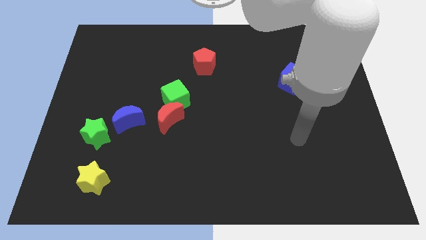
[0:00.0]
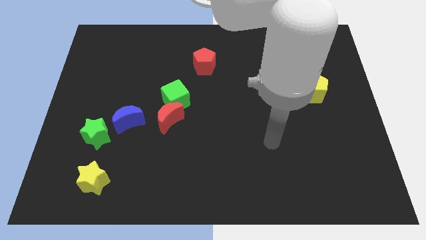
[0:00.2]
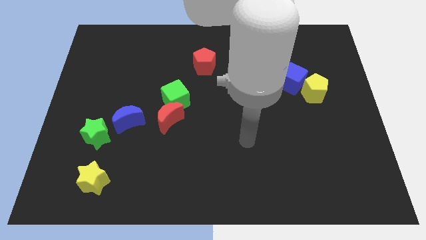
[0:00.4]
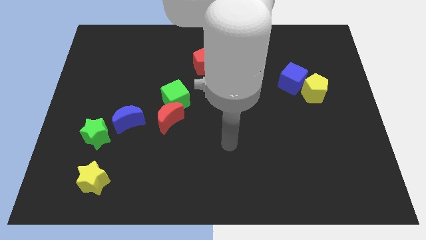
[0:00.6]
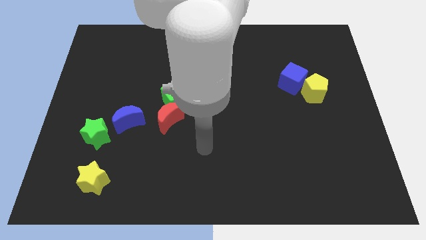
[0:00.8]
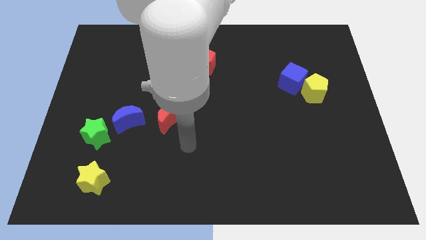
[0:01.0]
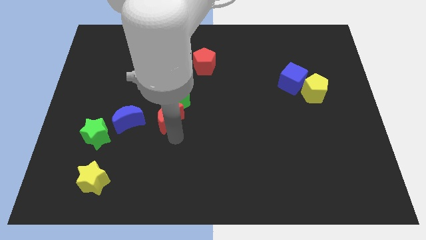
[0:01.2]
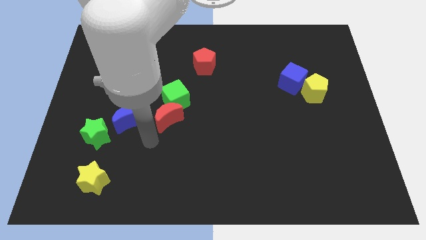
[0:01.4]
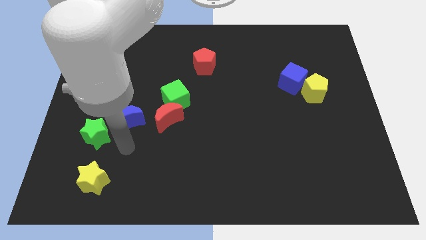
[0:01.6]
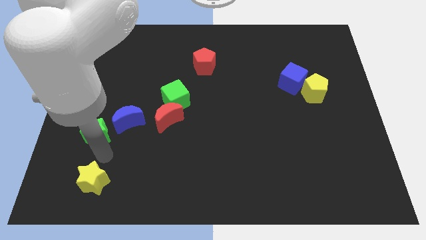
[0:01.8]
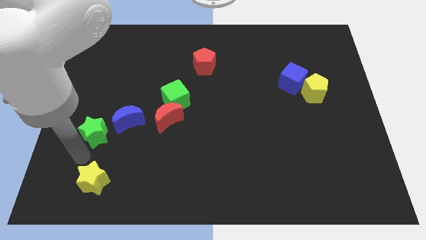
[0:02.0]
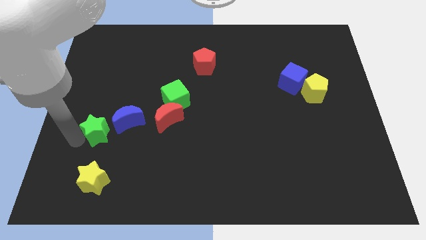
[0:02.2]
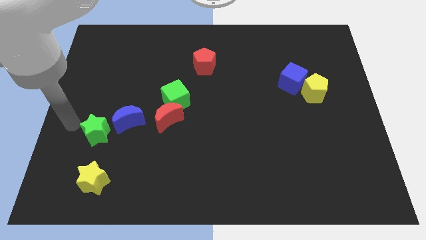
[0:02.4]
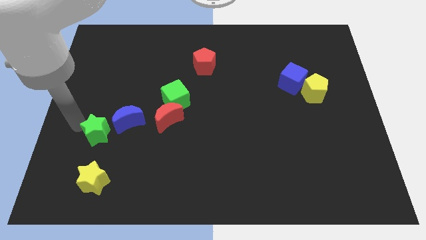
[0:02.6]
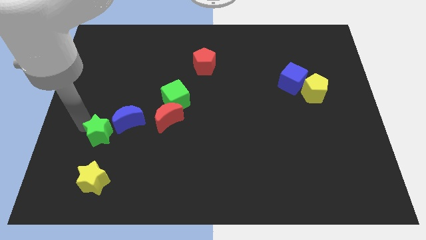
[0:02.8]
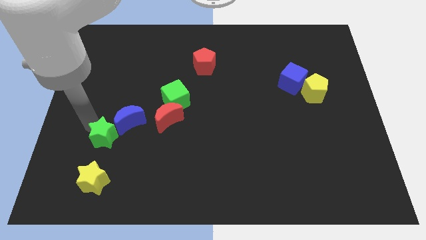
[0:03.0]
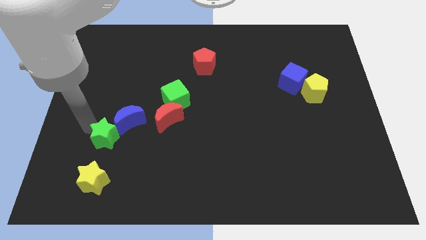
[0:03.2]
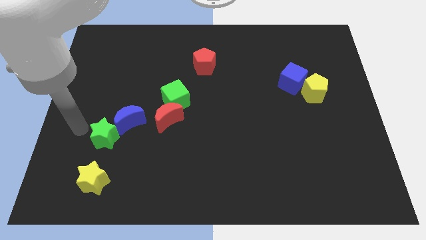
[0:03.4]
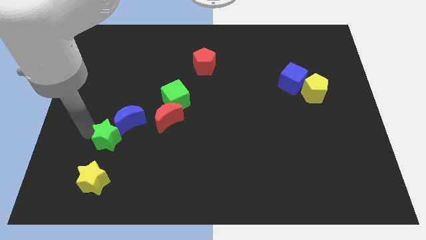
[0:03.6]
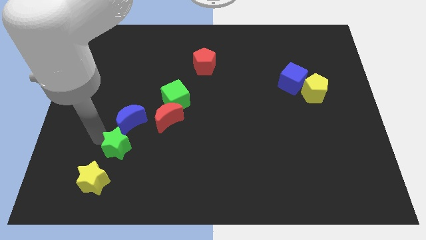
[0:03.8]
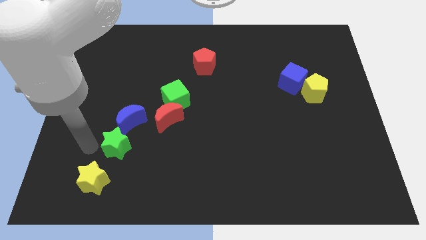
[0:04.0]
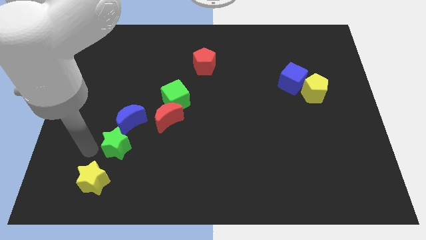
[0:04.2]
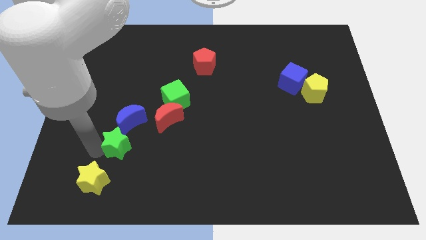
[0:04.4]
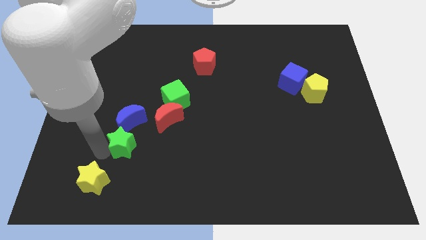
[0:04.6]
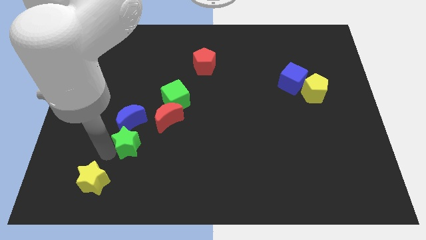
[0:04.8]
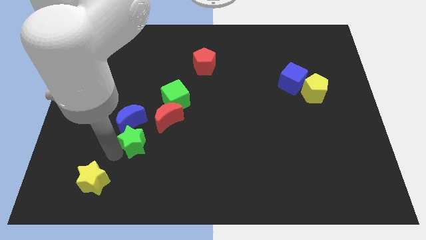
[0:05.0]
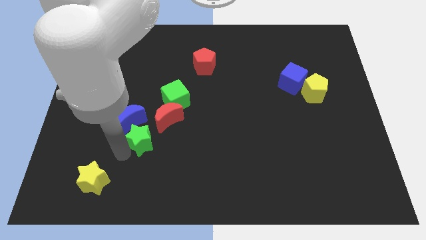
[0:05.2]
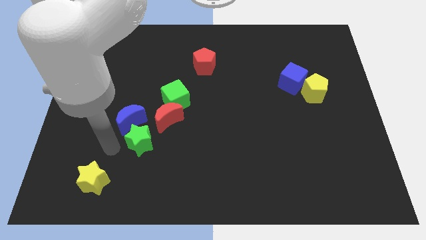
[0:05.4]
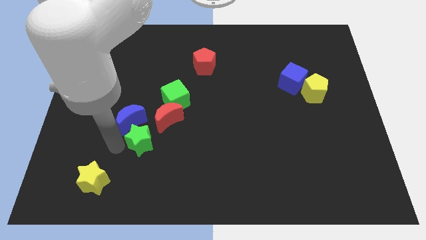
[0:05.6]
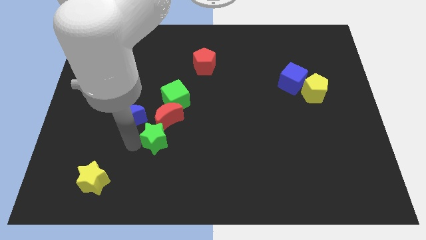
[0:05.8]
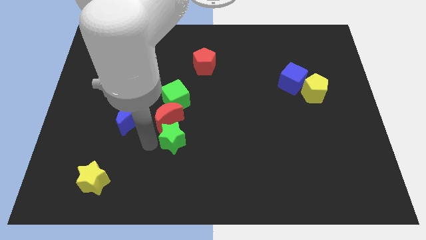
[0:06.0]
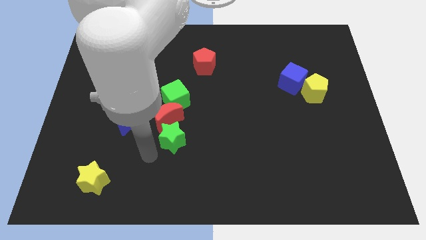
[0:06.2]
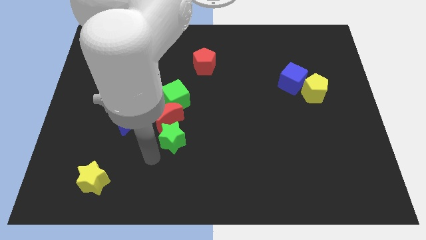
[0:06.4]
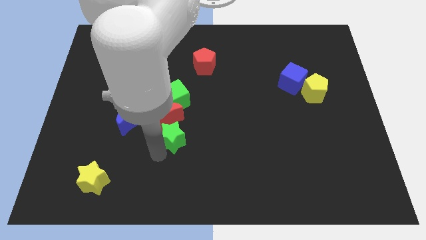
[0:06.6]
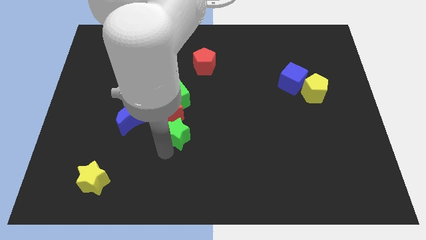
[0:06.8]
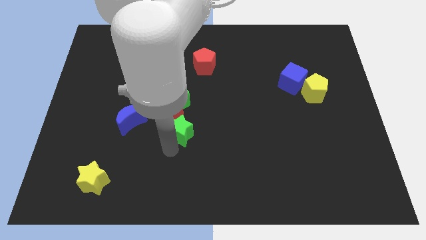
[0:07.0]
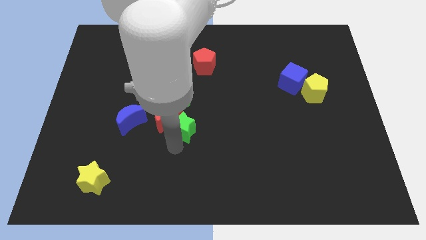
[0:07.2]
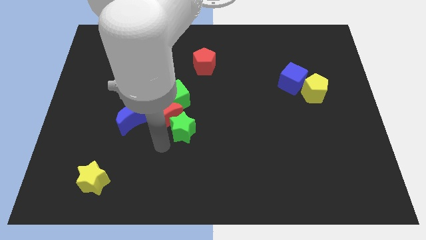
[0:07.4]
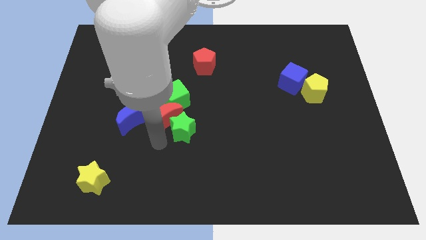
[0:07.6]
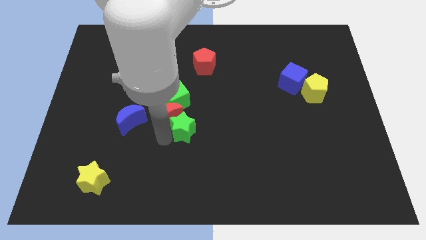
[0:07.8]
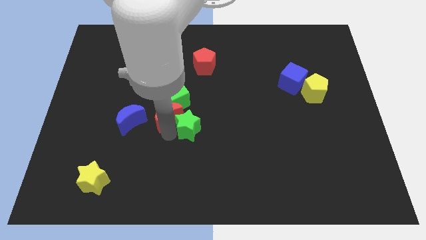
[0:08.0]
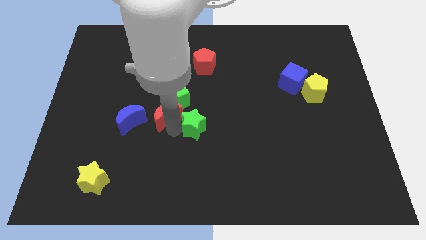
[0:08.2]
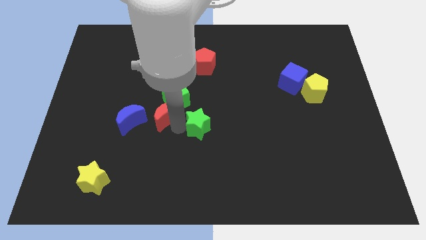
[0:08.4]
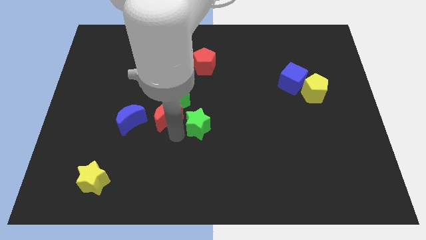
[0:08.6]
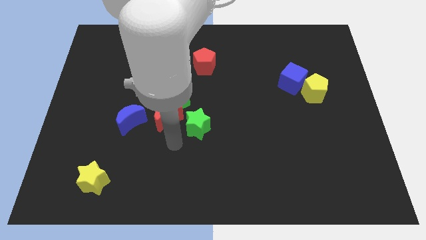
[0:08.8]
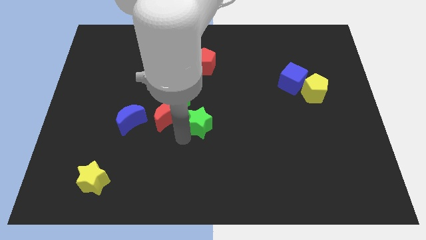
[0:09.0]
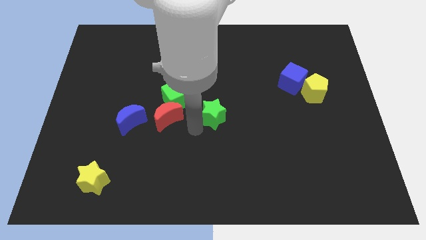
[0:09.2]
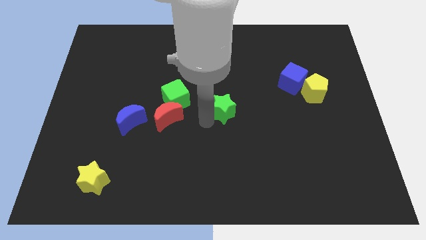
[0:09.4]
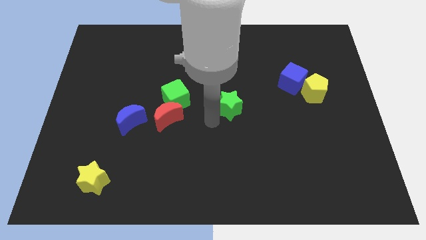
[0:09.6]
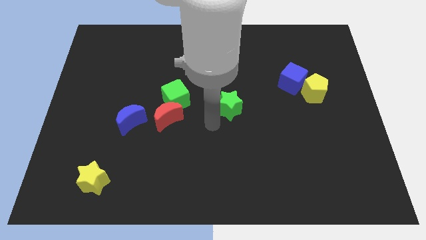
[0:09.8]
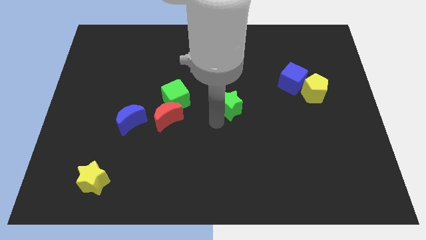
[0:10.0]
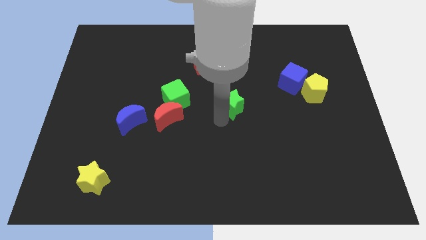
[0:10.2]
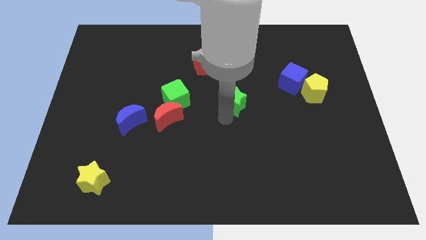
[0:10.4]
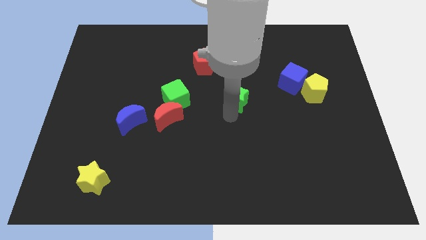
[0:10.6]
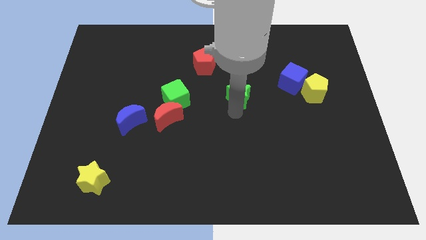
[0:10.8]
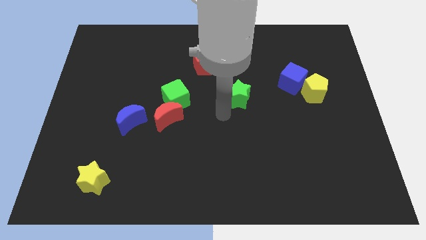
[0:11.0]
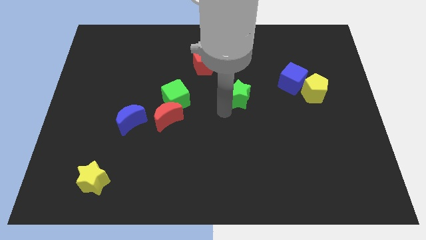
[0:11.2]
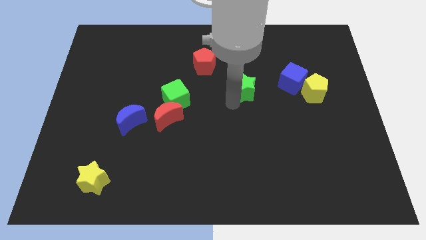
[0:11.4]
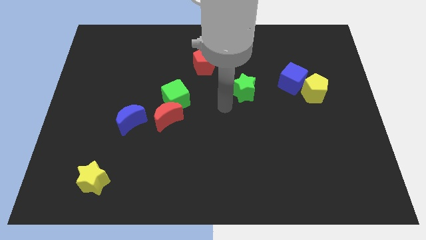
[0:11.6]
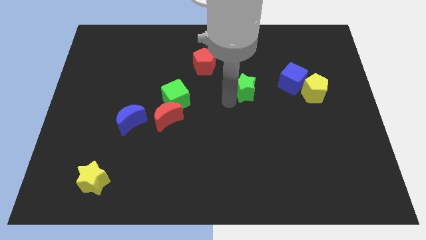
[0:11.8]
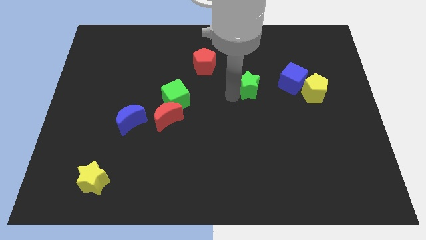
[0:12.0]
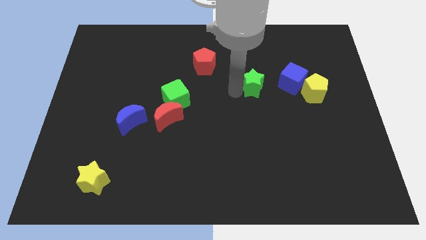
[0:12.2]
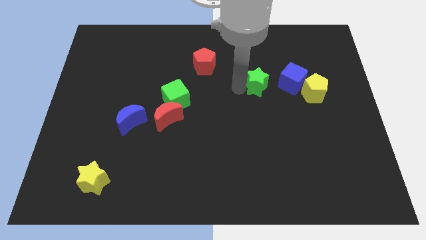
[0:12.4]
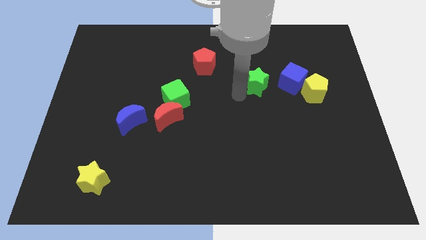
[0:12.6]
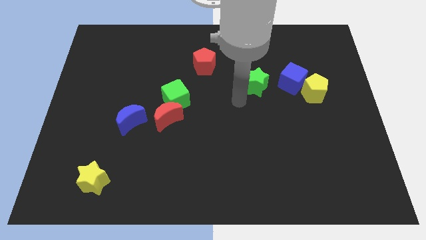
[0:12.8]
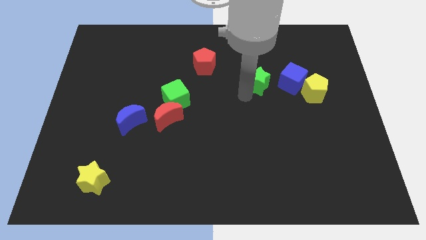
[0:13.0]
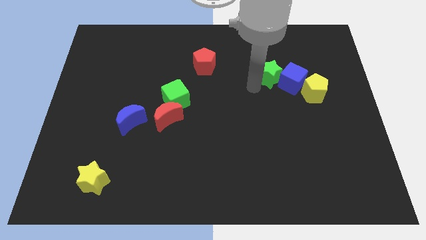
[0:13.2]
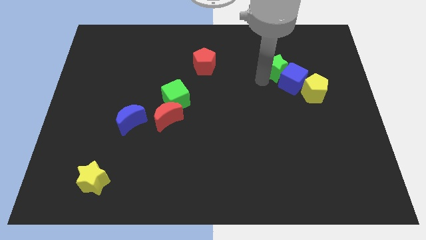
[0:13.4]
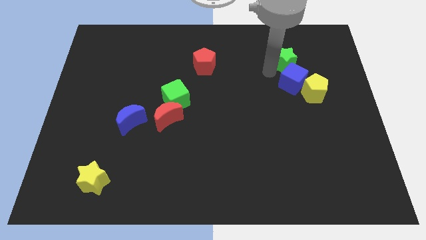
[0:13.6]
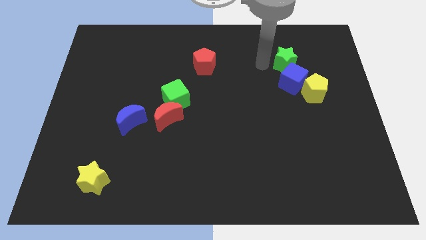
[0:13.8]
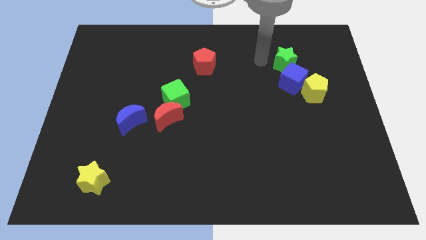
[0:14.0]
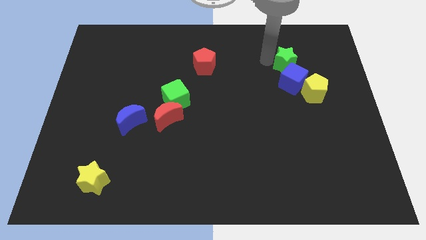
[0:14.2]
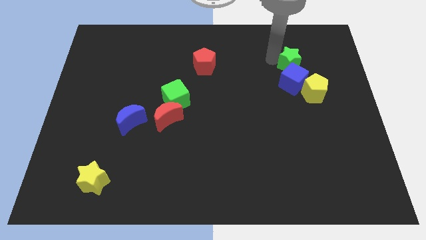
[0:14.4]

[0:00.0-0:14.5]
move the green star diagonally up and to the right of the blue cube

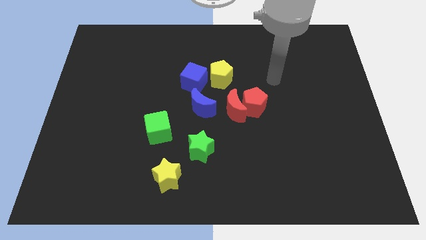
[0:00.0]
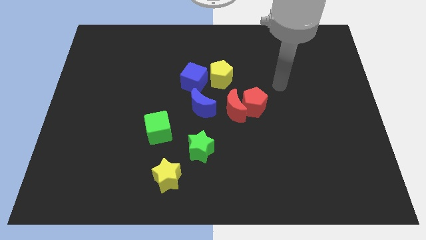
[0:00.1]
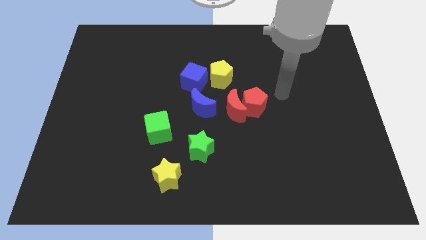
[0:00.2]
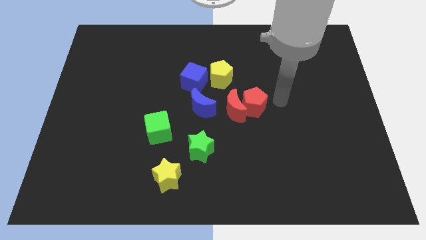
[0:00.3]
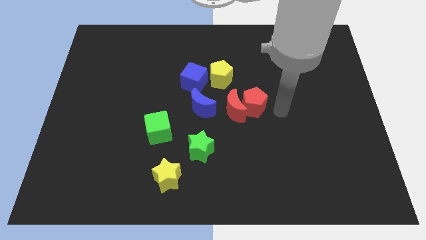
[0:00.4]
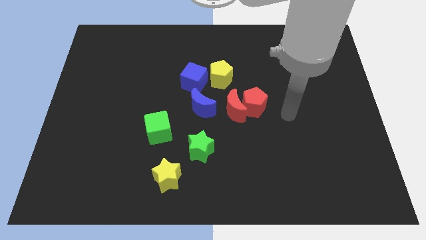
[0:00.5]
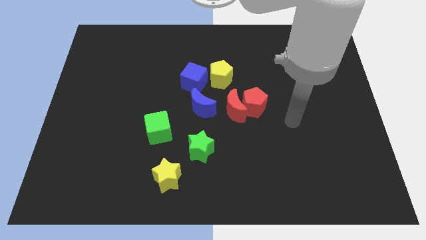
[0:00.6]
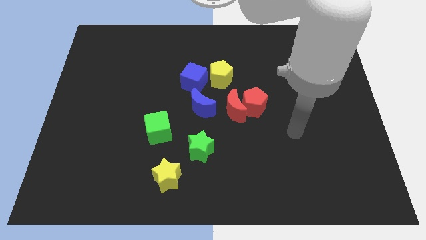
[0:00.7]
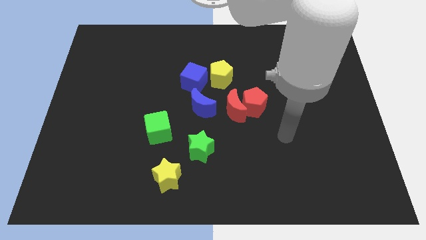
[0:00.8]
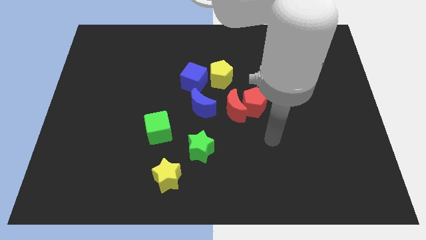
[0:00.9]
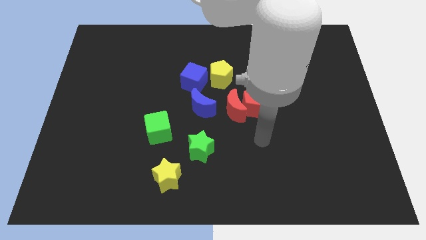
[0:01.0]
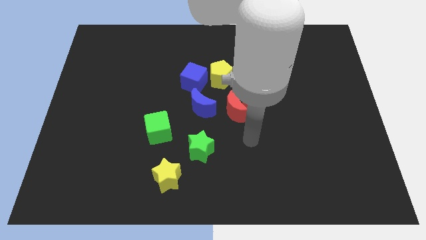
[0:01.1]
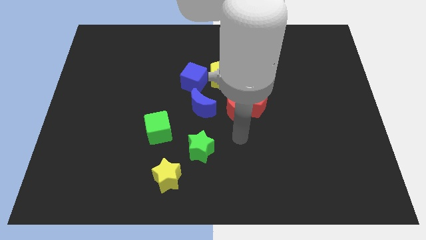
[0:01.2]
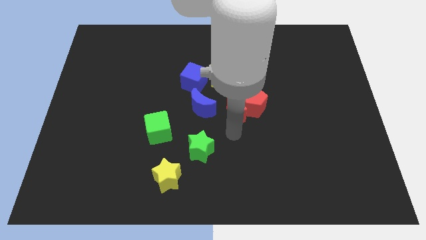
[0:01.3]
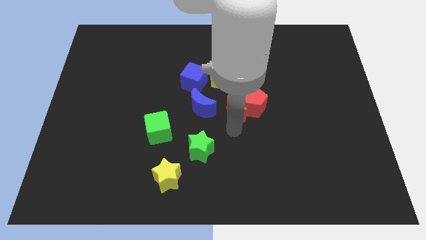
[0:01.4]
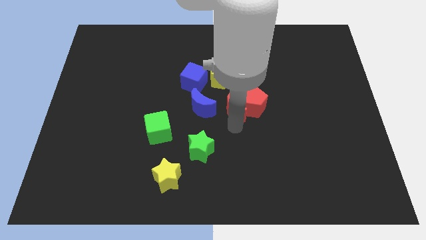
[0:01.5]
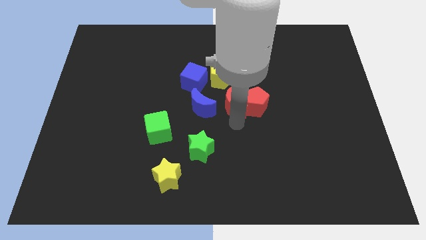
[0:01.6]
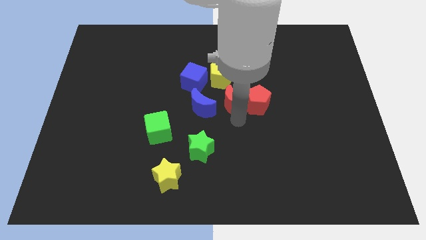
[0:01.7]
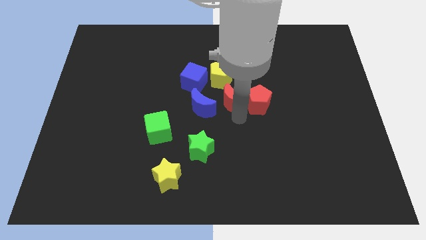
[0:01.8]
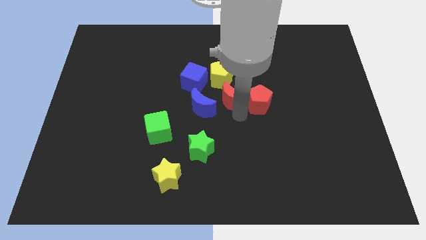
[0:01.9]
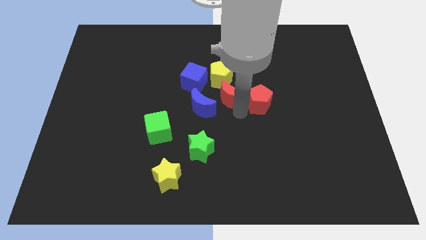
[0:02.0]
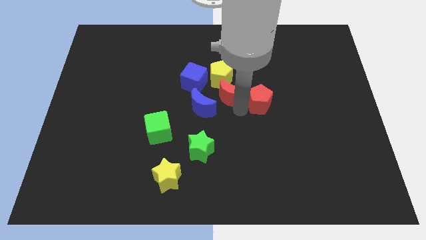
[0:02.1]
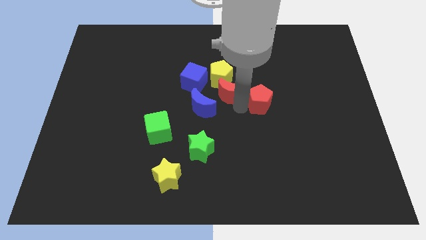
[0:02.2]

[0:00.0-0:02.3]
put the red moon to the right side of the blue cube
